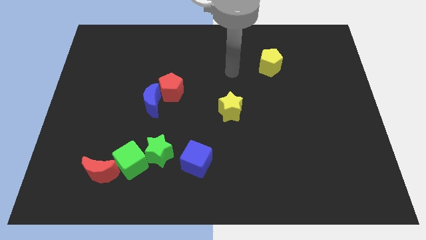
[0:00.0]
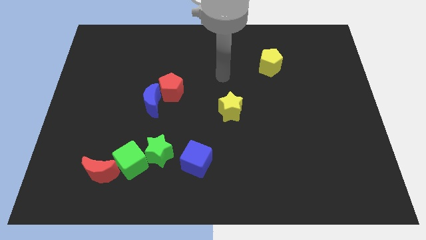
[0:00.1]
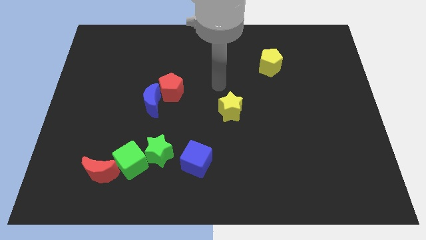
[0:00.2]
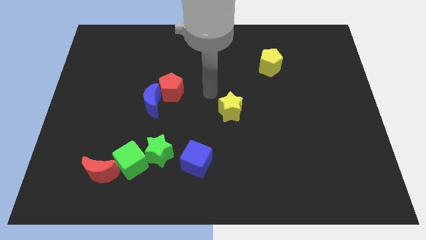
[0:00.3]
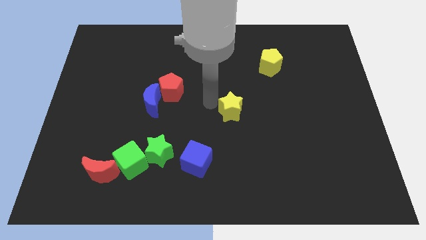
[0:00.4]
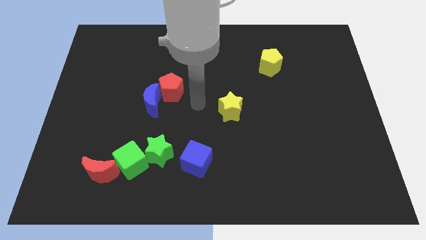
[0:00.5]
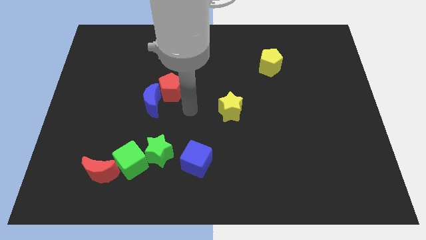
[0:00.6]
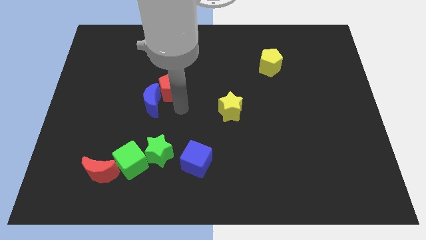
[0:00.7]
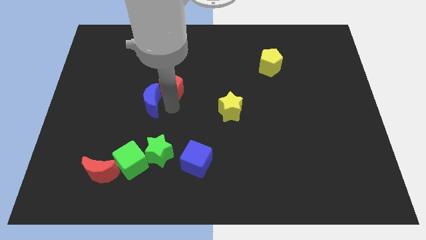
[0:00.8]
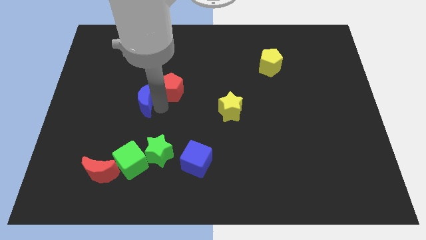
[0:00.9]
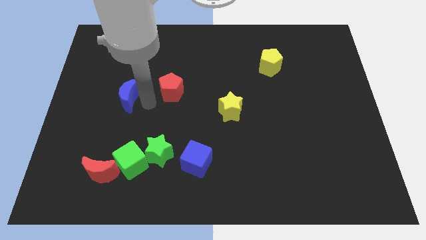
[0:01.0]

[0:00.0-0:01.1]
move the red pentagon away from the blue moon

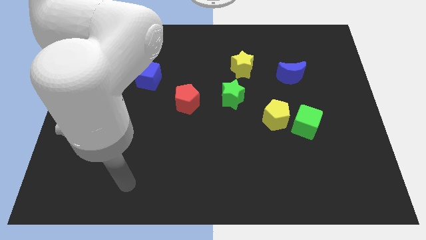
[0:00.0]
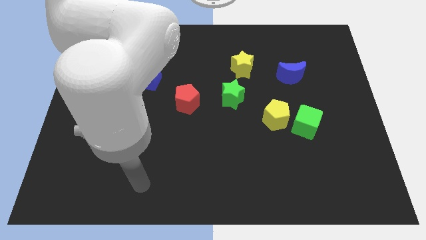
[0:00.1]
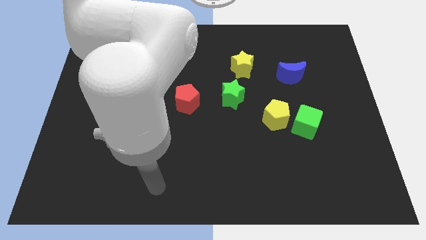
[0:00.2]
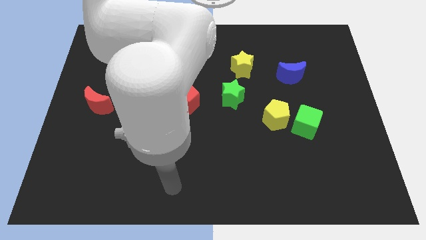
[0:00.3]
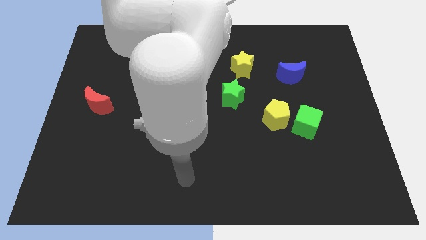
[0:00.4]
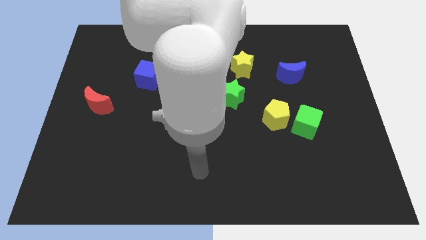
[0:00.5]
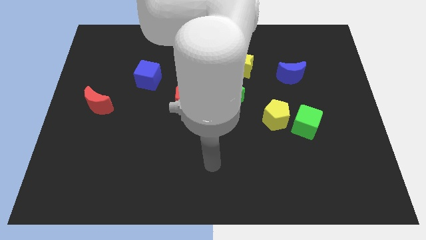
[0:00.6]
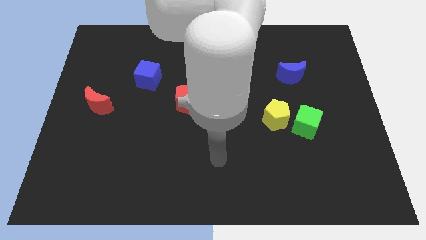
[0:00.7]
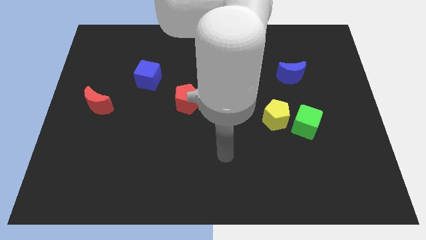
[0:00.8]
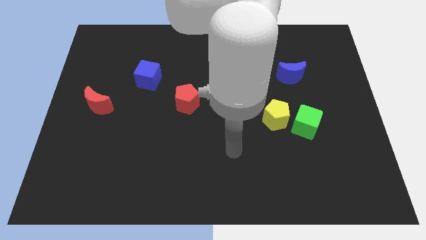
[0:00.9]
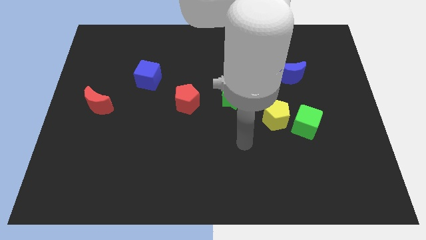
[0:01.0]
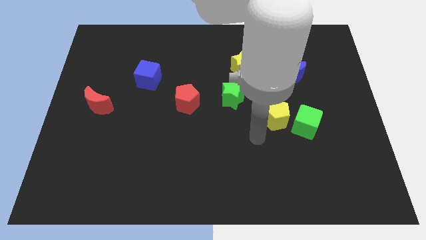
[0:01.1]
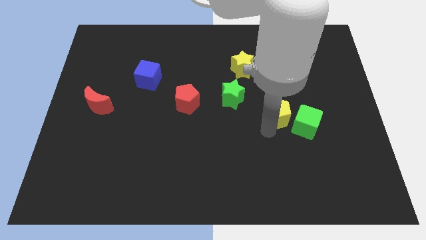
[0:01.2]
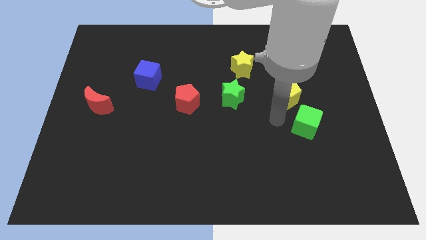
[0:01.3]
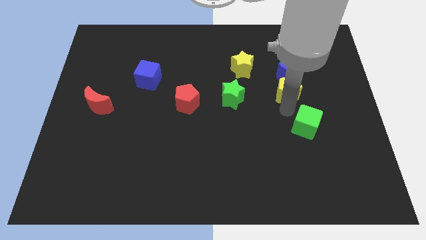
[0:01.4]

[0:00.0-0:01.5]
pull the green cube apart from the yellow pentagon

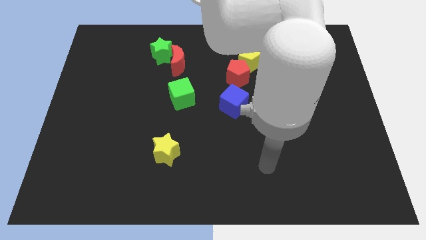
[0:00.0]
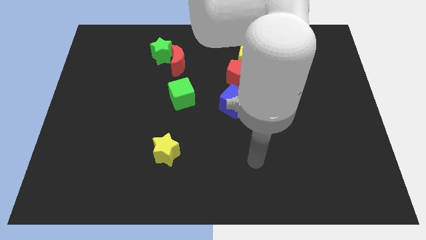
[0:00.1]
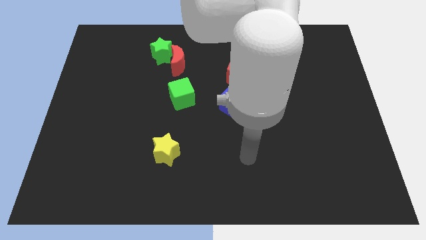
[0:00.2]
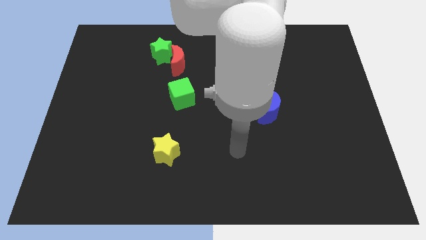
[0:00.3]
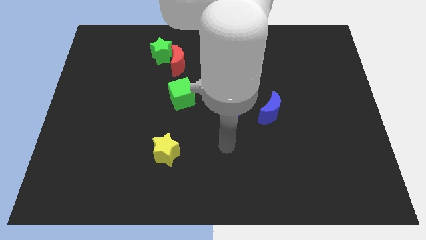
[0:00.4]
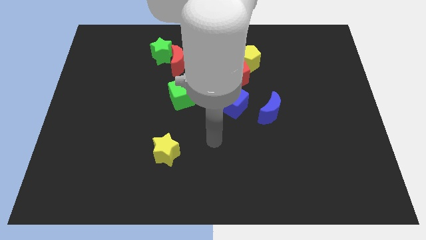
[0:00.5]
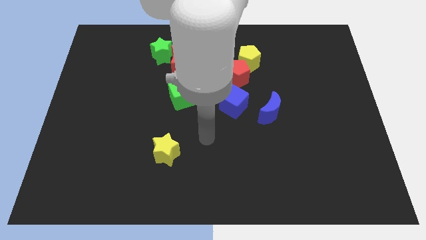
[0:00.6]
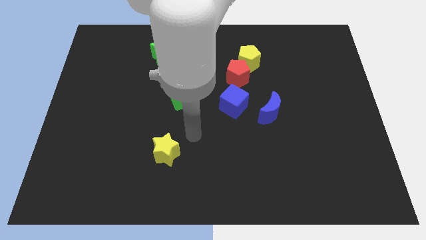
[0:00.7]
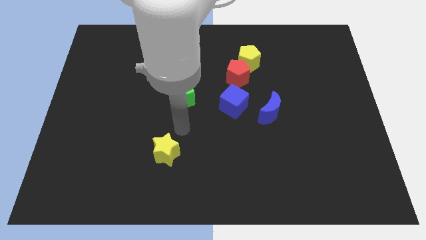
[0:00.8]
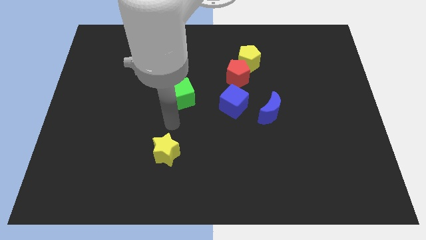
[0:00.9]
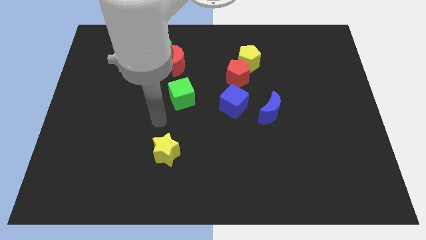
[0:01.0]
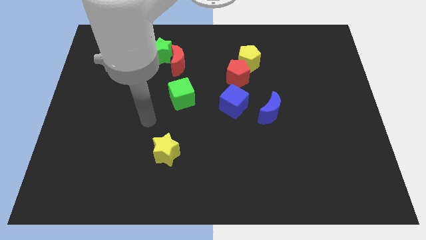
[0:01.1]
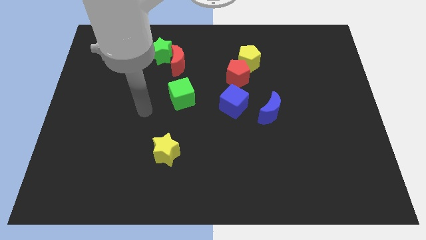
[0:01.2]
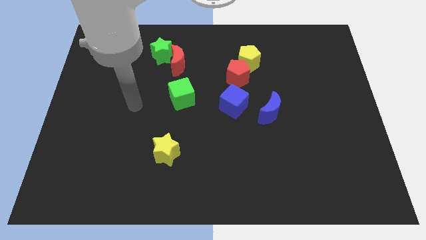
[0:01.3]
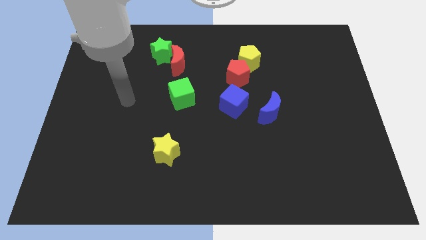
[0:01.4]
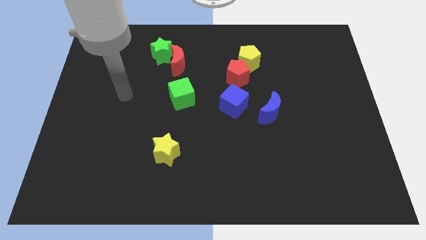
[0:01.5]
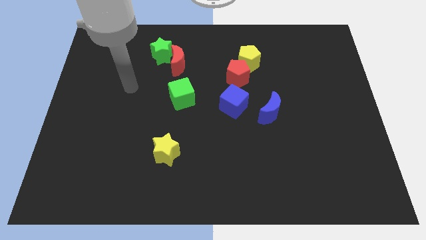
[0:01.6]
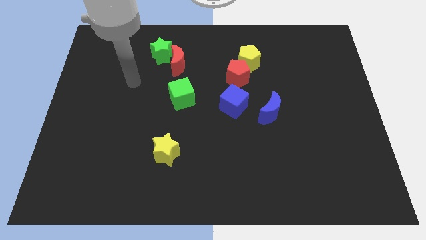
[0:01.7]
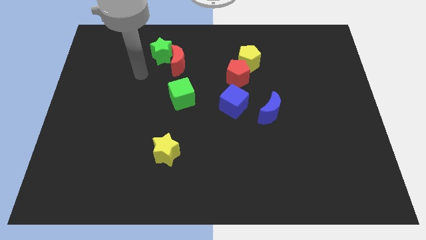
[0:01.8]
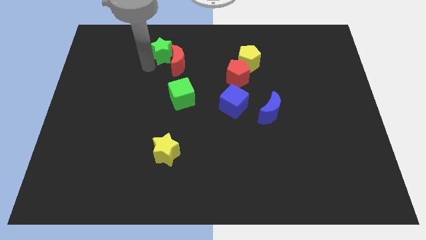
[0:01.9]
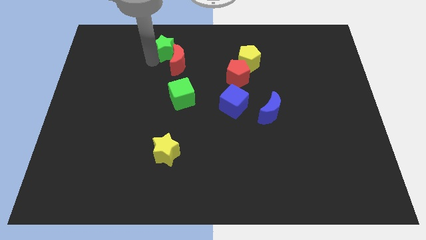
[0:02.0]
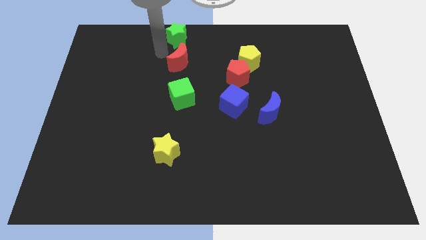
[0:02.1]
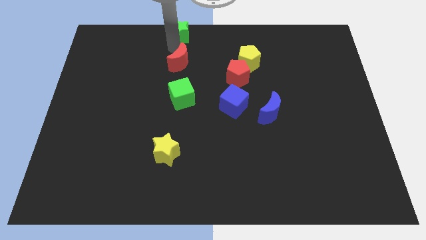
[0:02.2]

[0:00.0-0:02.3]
move the red moon away from the green star

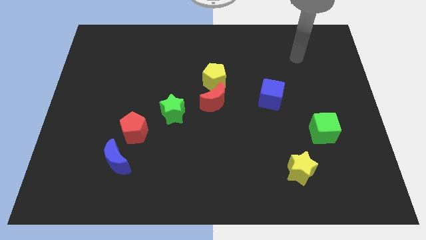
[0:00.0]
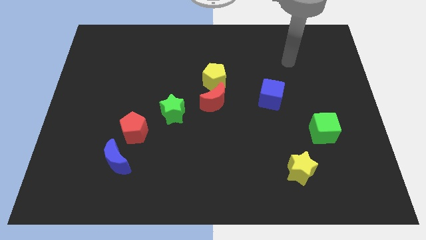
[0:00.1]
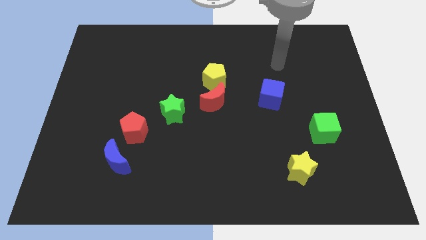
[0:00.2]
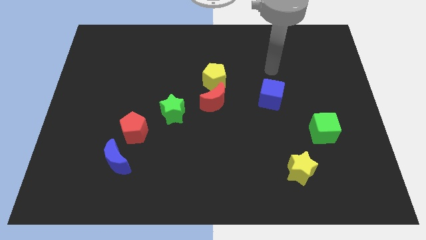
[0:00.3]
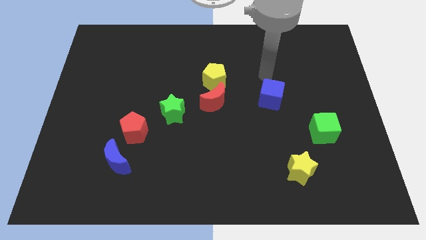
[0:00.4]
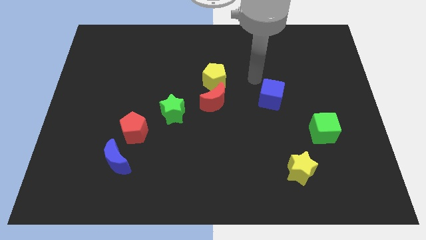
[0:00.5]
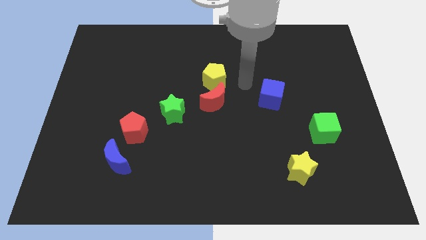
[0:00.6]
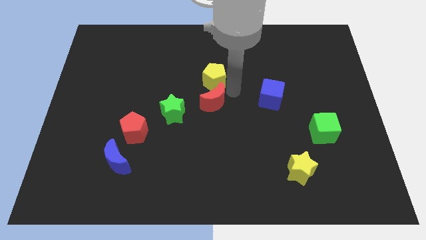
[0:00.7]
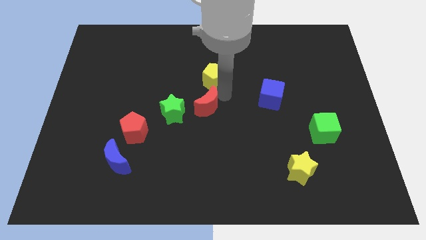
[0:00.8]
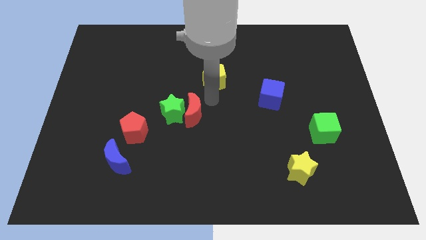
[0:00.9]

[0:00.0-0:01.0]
separate the yellow pentagon from the red moon

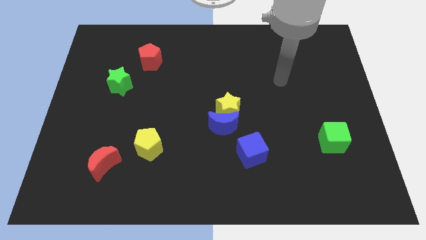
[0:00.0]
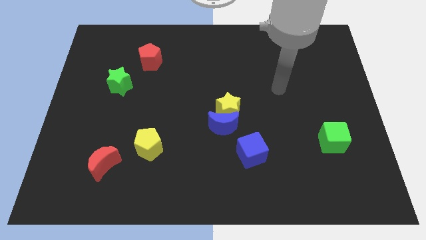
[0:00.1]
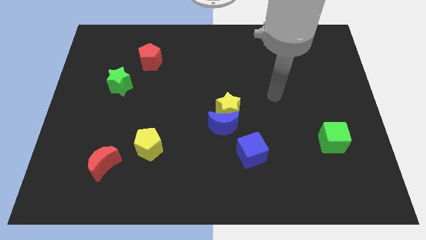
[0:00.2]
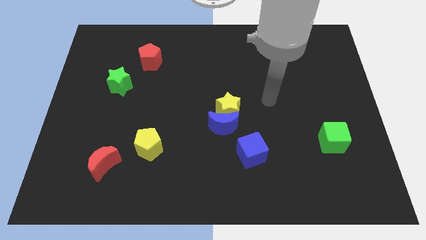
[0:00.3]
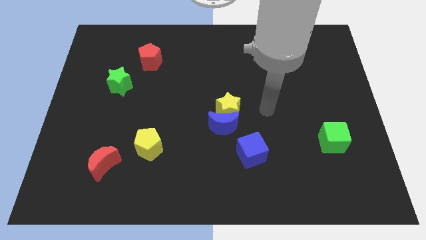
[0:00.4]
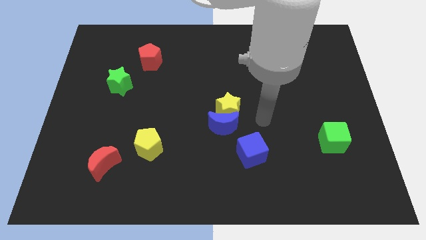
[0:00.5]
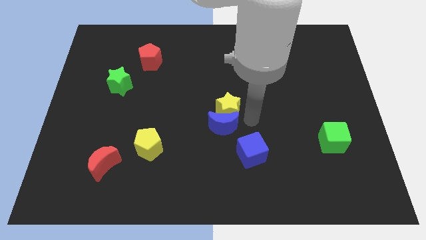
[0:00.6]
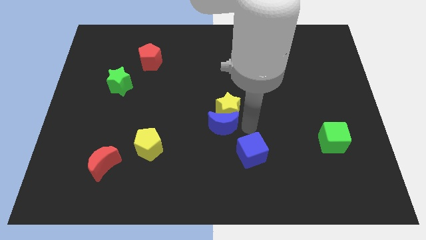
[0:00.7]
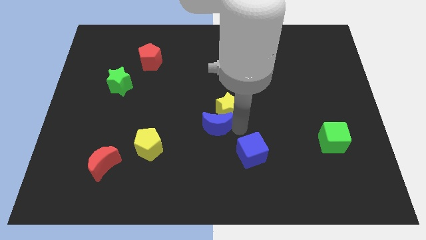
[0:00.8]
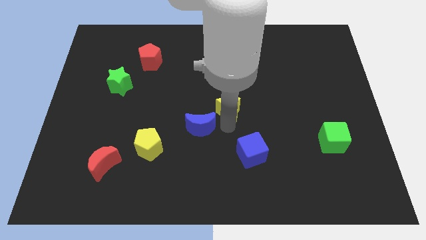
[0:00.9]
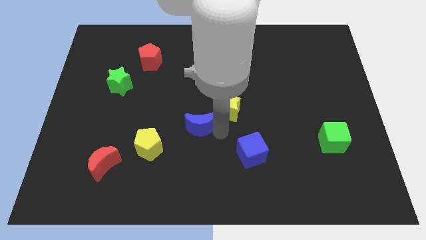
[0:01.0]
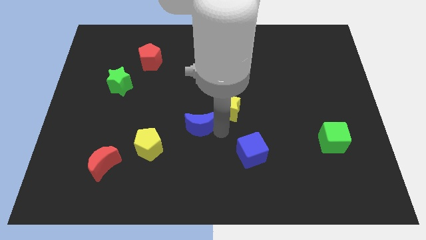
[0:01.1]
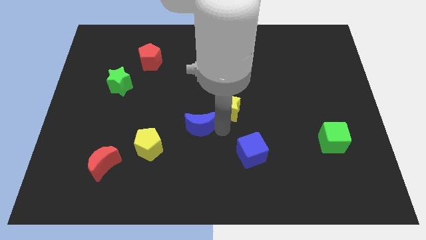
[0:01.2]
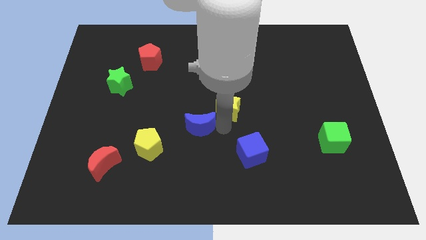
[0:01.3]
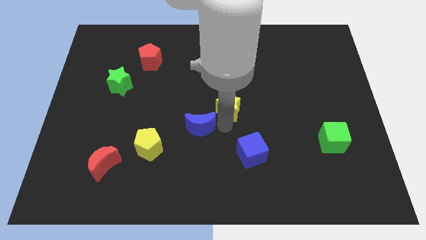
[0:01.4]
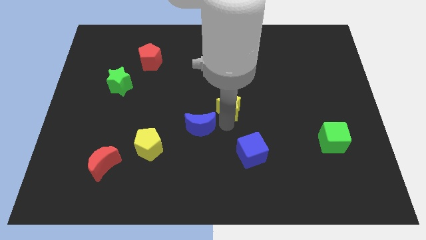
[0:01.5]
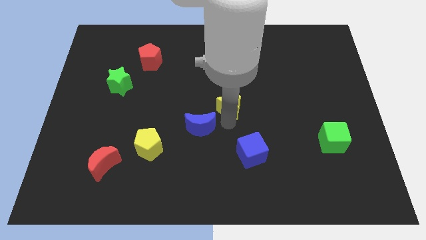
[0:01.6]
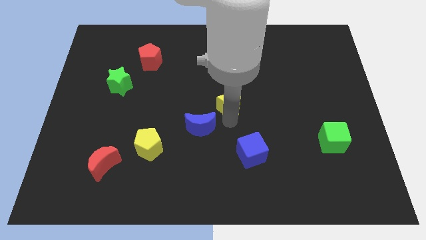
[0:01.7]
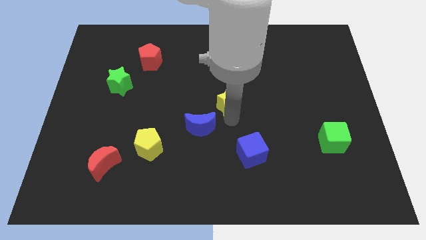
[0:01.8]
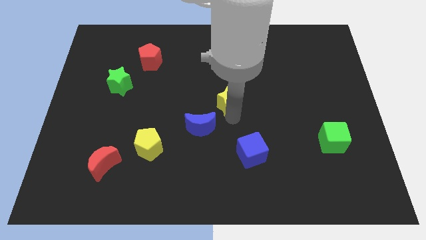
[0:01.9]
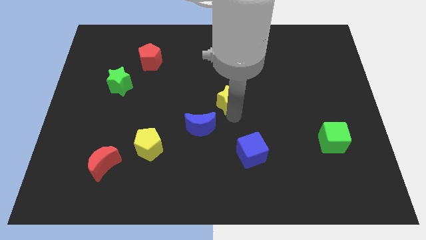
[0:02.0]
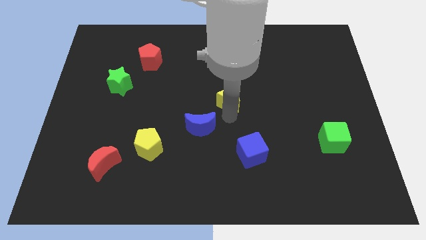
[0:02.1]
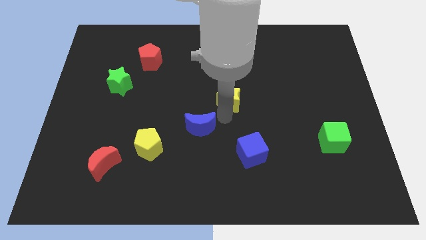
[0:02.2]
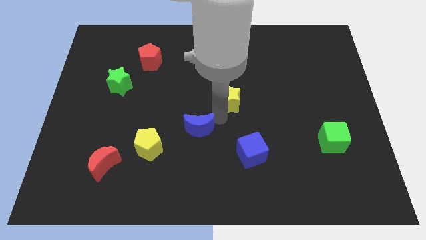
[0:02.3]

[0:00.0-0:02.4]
move the yellow star away from the blue moon

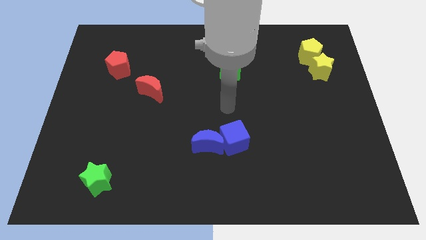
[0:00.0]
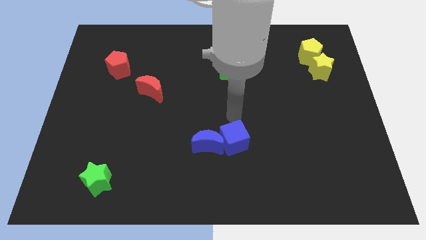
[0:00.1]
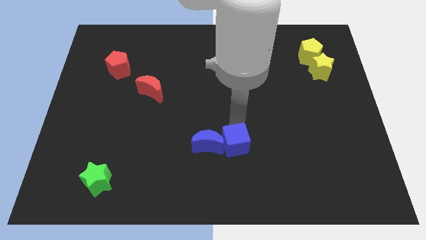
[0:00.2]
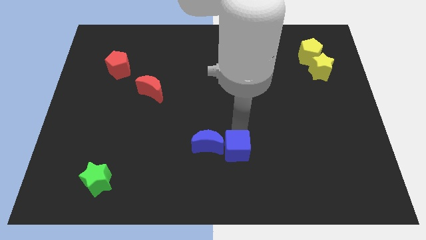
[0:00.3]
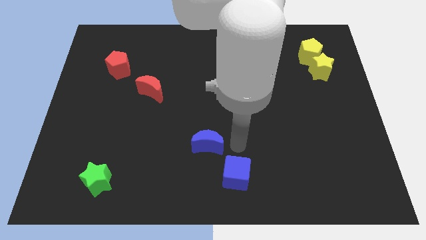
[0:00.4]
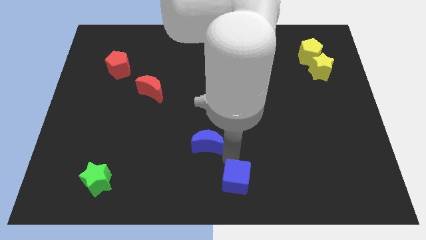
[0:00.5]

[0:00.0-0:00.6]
pull the blue moon apart from the blue cube

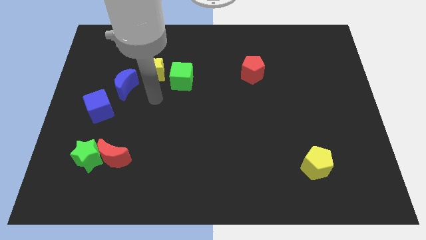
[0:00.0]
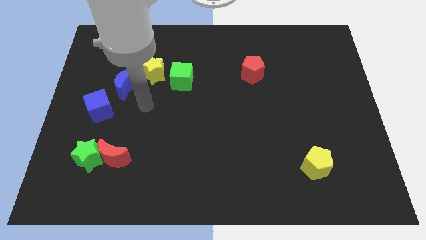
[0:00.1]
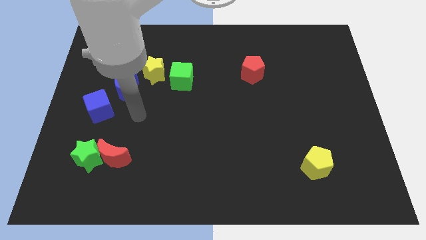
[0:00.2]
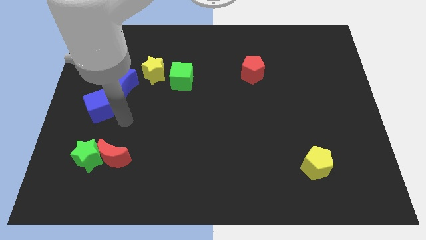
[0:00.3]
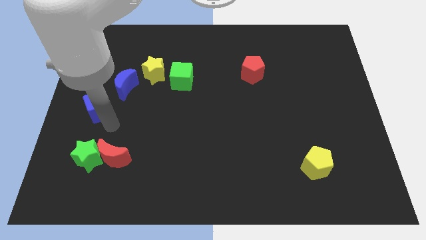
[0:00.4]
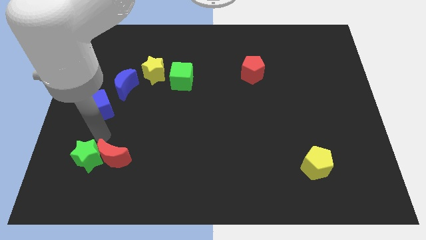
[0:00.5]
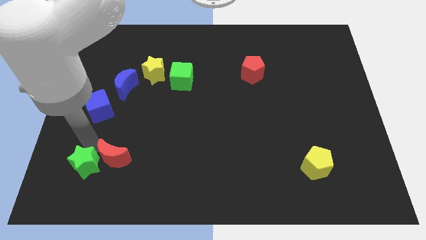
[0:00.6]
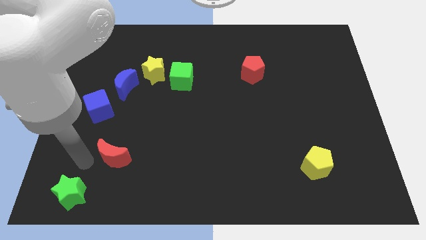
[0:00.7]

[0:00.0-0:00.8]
separate the red moon from the green star
